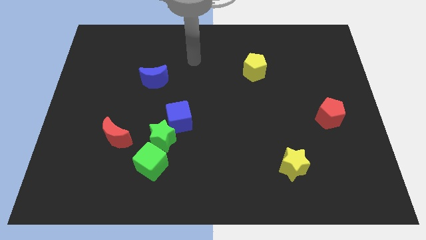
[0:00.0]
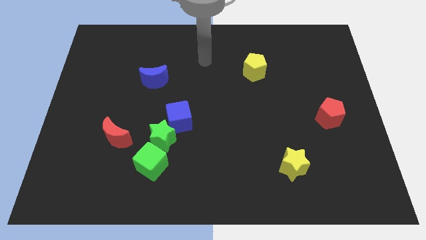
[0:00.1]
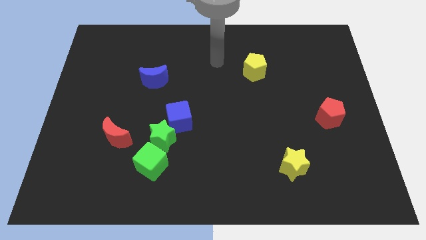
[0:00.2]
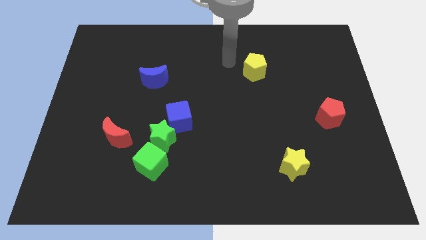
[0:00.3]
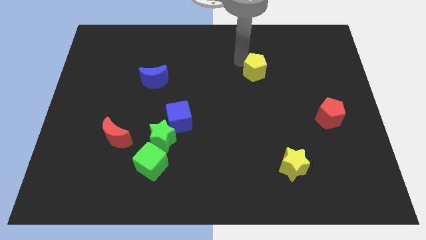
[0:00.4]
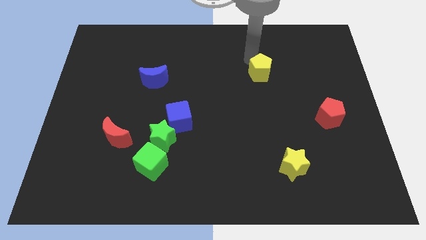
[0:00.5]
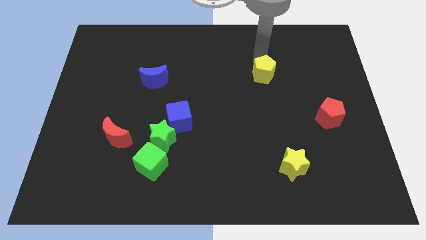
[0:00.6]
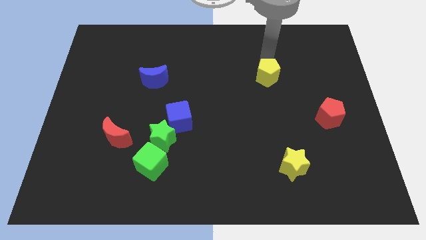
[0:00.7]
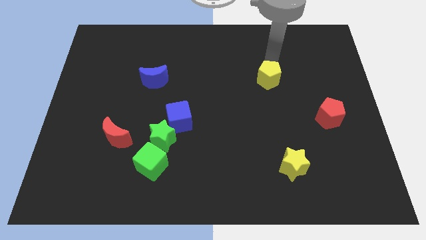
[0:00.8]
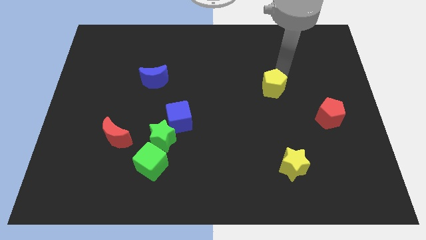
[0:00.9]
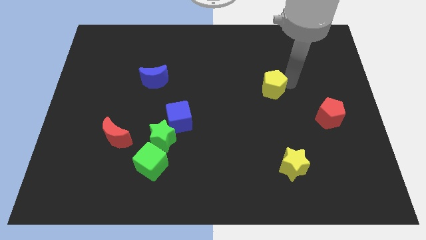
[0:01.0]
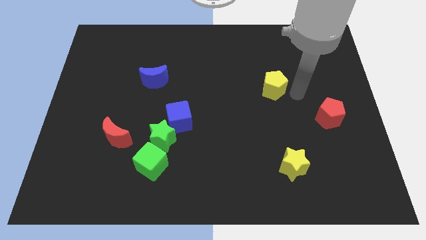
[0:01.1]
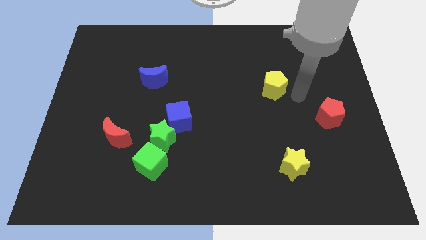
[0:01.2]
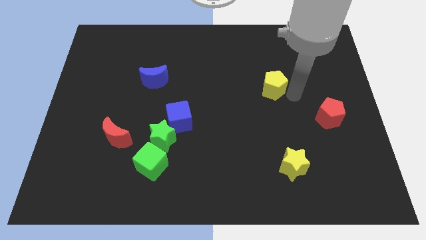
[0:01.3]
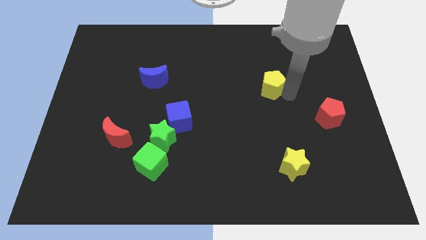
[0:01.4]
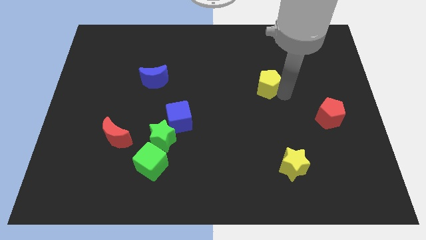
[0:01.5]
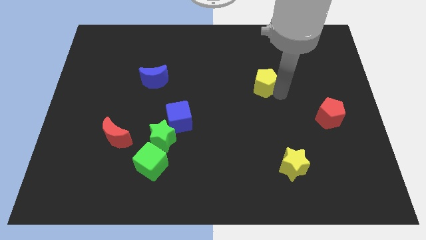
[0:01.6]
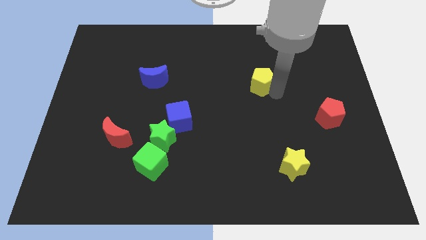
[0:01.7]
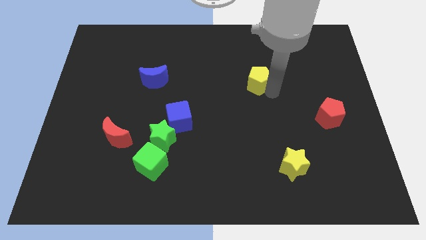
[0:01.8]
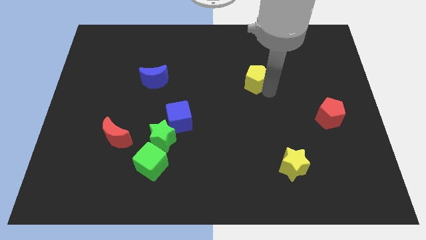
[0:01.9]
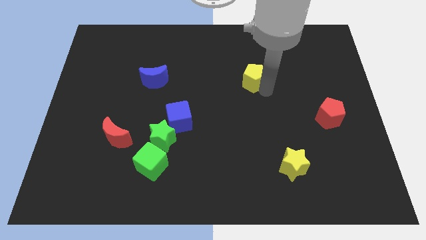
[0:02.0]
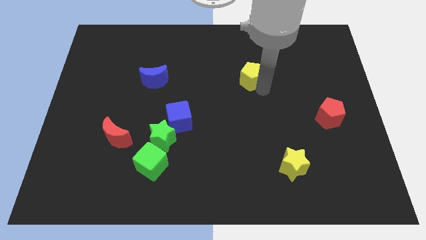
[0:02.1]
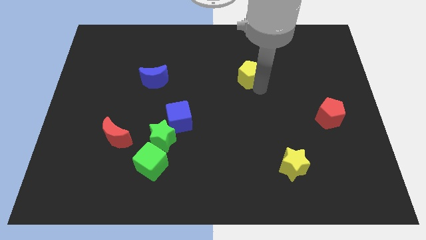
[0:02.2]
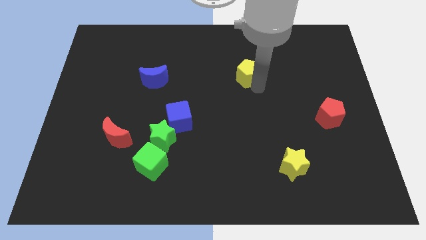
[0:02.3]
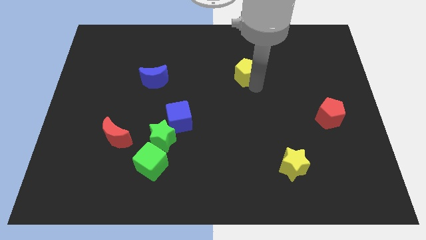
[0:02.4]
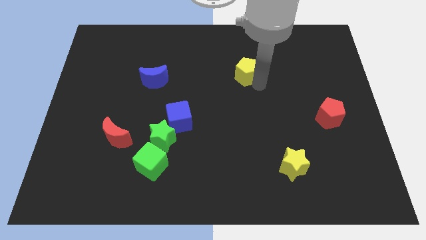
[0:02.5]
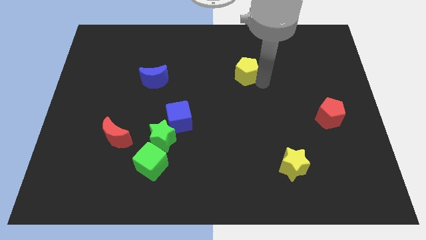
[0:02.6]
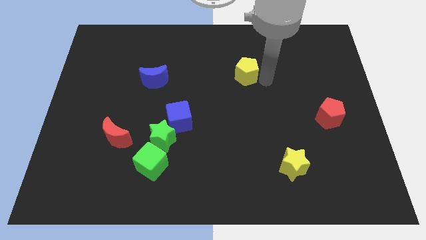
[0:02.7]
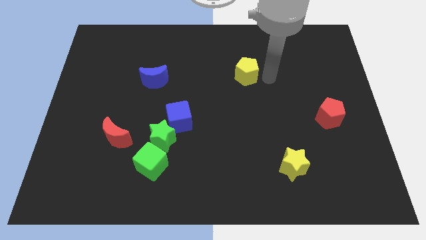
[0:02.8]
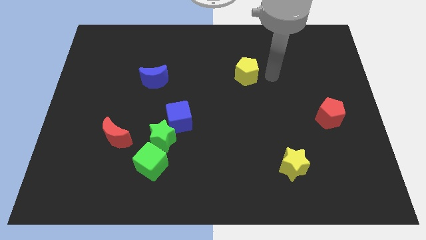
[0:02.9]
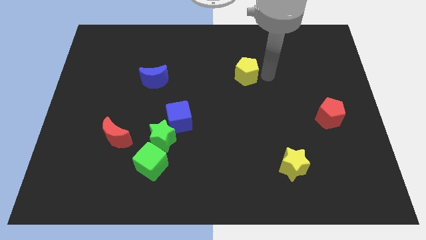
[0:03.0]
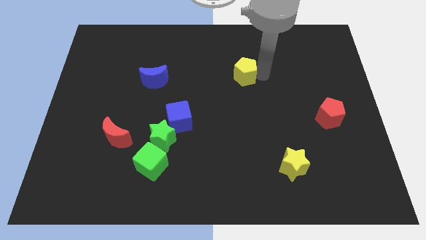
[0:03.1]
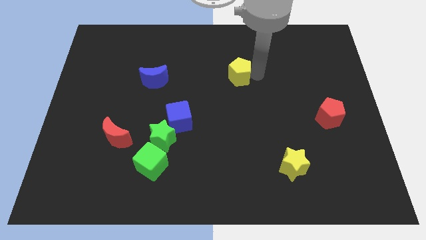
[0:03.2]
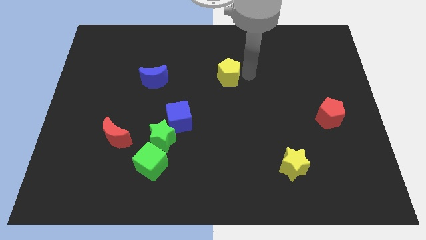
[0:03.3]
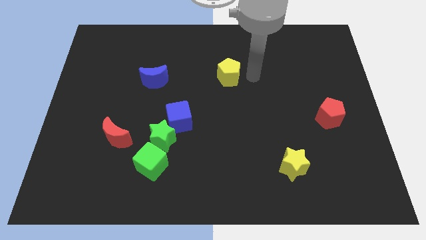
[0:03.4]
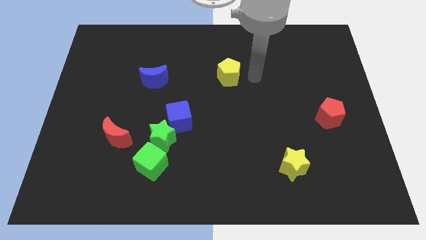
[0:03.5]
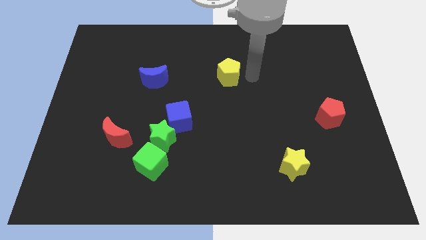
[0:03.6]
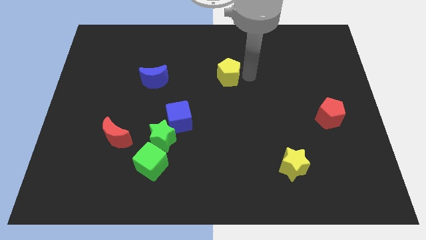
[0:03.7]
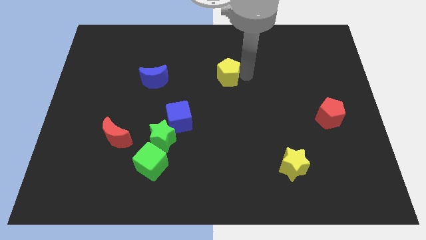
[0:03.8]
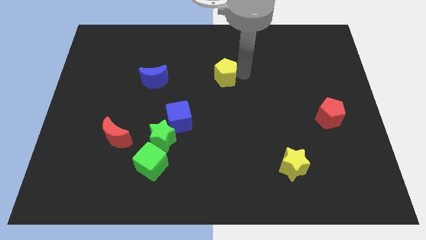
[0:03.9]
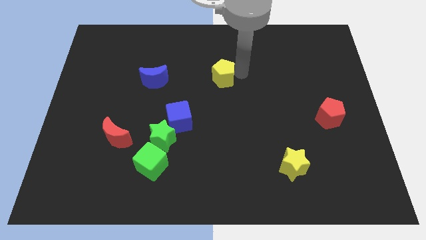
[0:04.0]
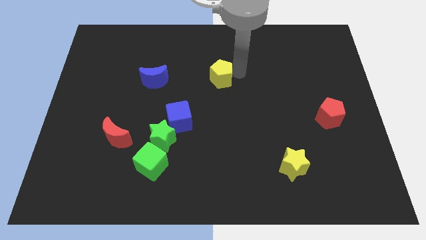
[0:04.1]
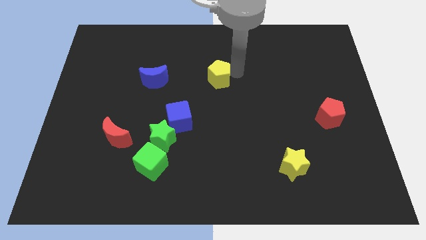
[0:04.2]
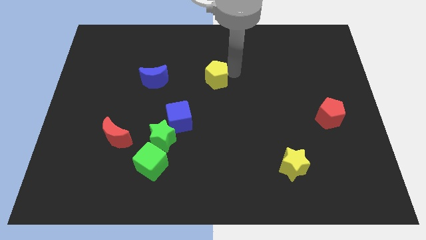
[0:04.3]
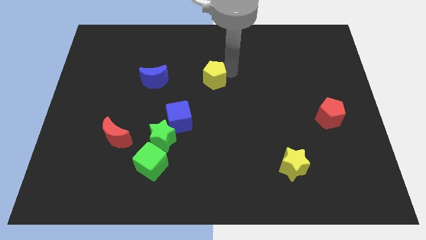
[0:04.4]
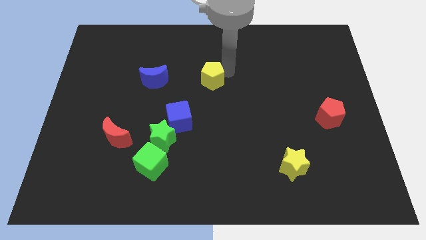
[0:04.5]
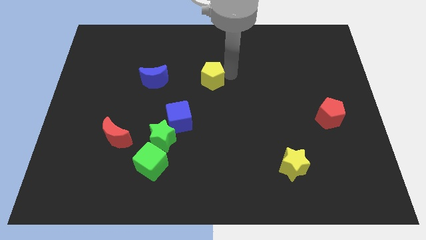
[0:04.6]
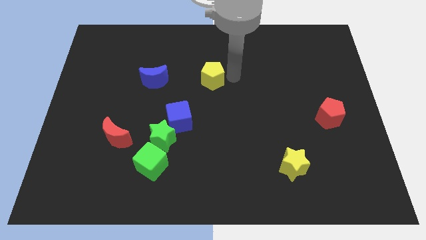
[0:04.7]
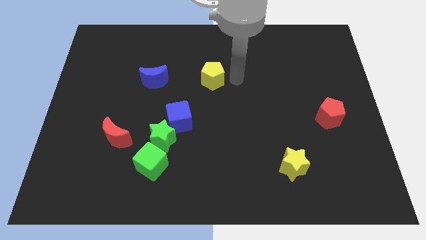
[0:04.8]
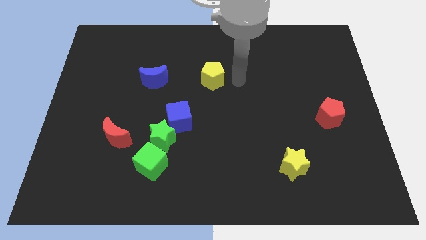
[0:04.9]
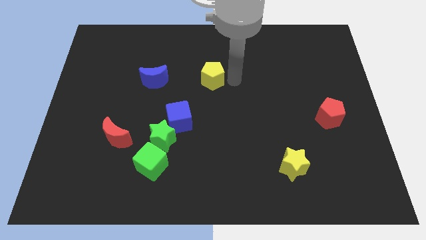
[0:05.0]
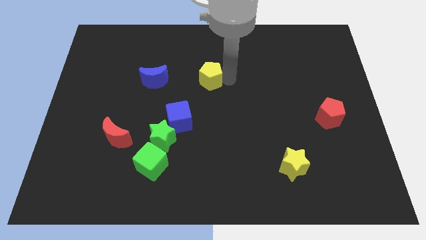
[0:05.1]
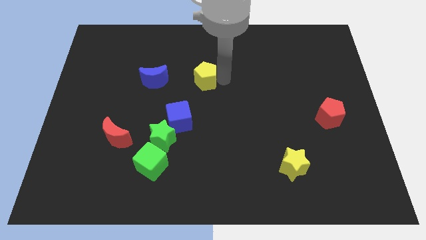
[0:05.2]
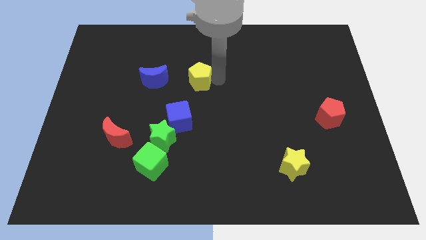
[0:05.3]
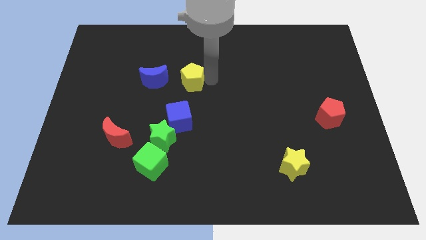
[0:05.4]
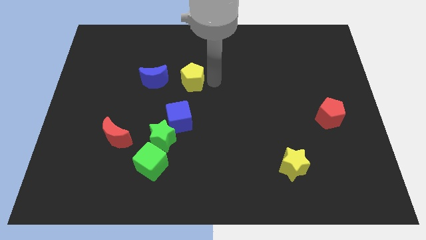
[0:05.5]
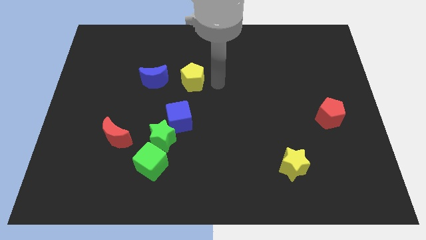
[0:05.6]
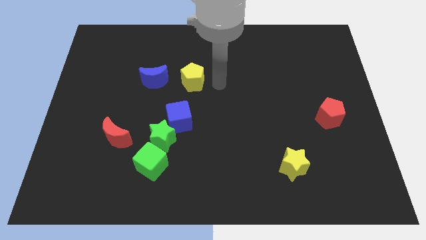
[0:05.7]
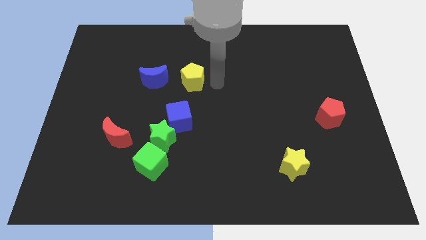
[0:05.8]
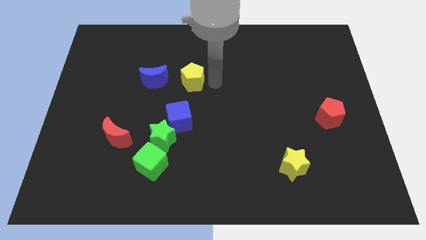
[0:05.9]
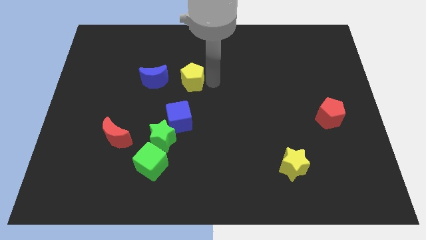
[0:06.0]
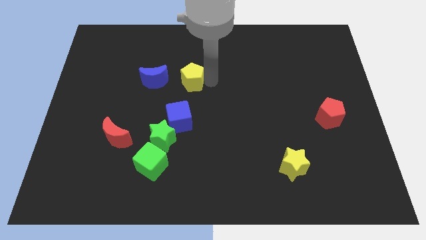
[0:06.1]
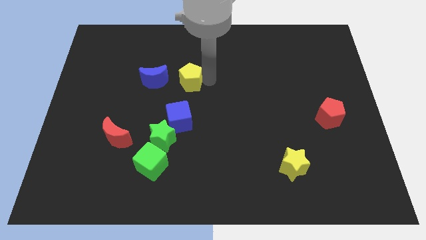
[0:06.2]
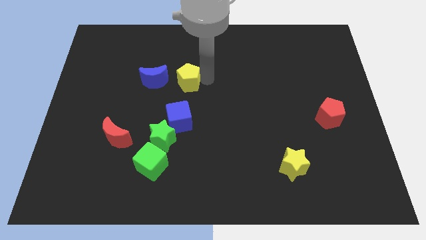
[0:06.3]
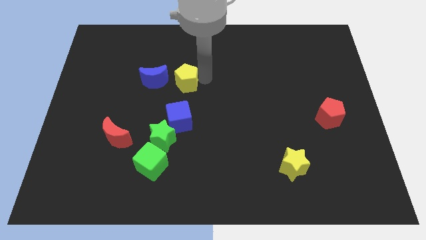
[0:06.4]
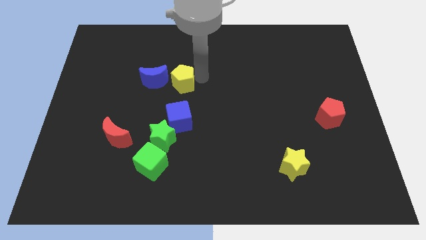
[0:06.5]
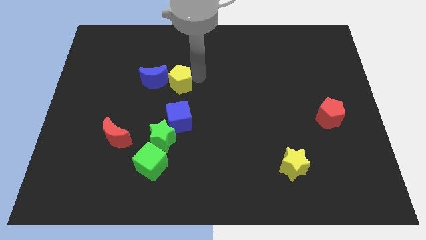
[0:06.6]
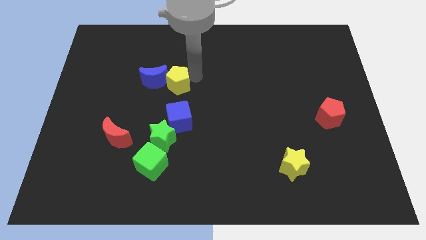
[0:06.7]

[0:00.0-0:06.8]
push the yellow pentagon to the blue moon
